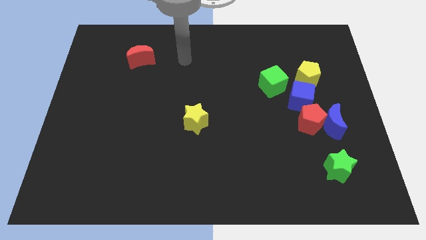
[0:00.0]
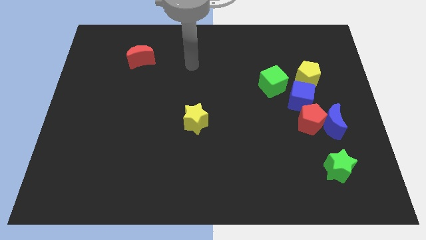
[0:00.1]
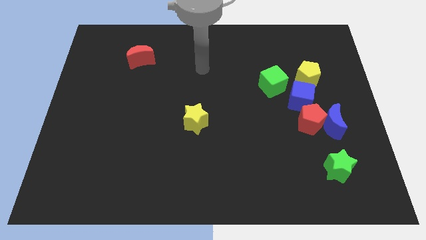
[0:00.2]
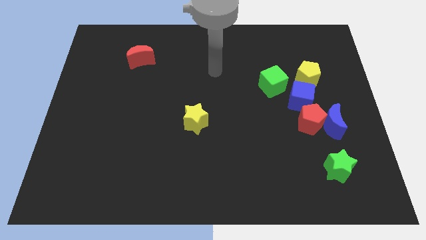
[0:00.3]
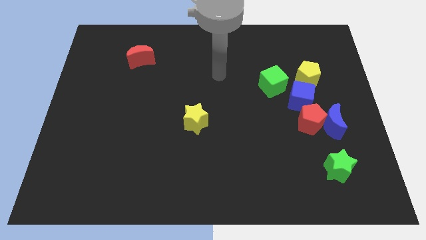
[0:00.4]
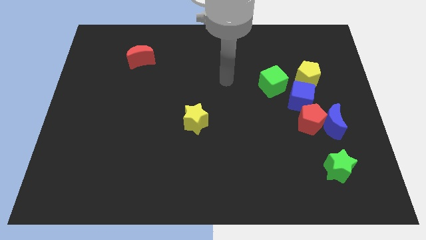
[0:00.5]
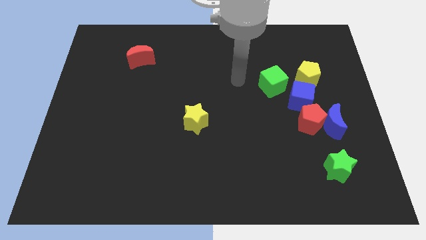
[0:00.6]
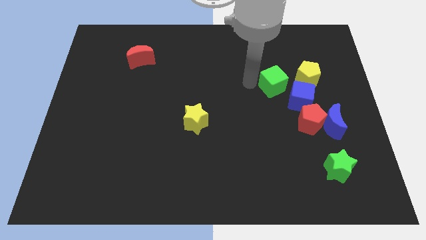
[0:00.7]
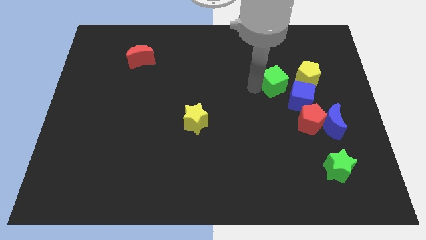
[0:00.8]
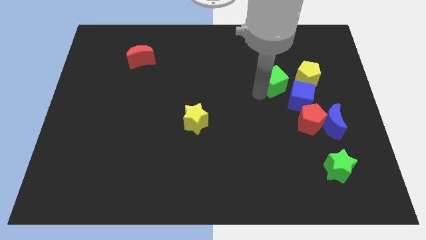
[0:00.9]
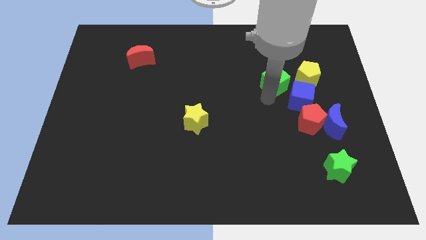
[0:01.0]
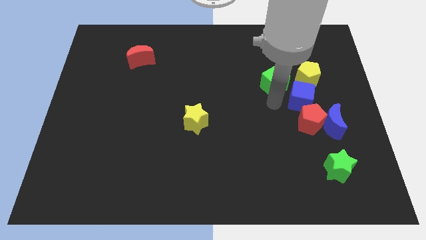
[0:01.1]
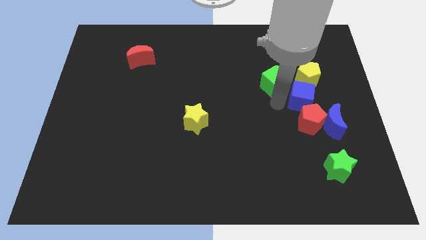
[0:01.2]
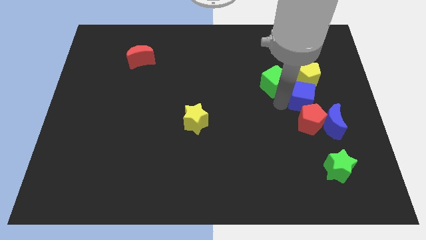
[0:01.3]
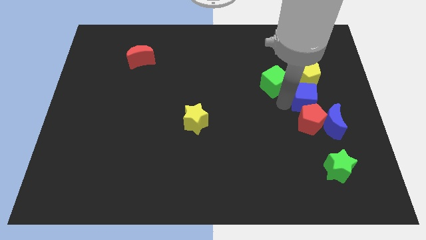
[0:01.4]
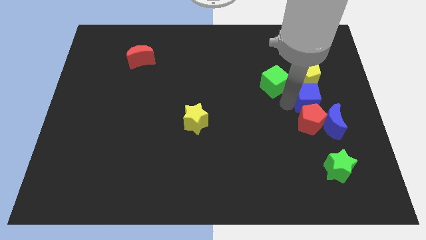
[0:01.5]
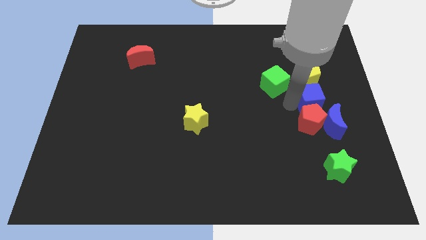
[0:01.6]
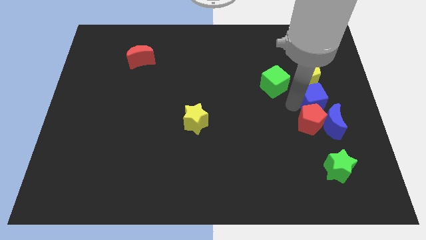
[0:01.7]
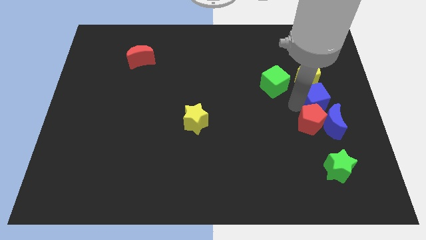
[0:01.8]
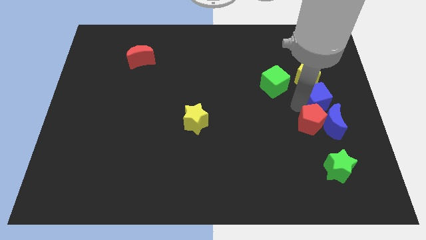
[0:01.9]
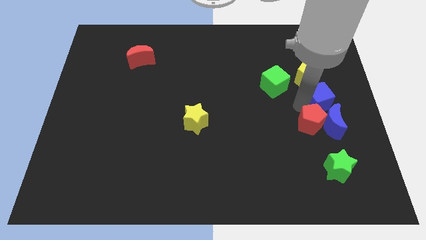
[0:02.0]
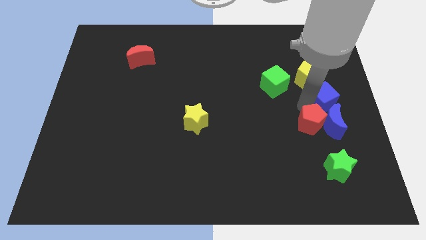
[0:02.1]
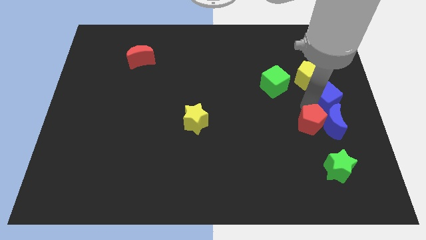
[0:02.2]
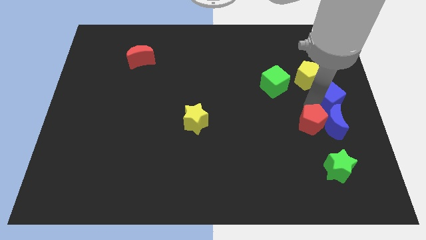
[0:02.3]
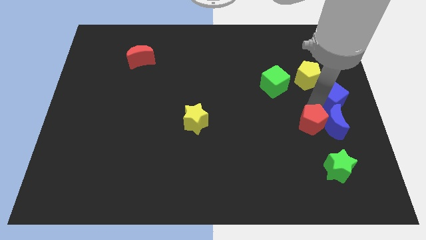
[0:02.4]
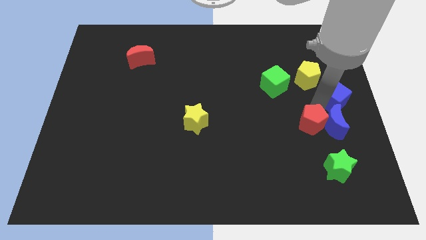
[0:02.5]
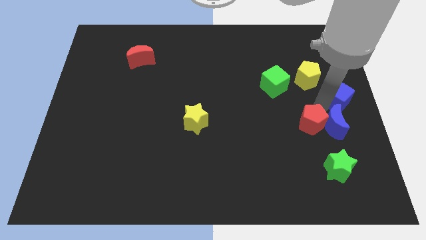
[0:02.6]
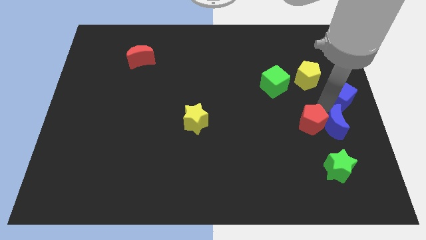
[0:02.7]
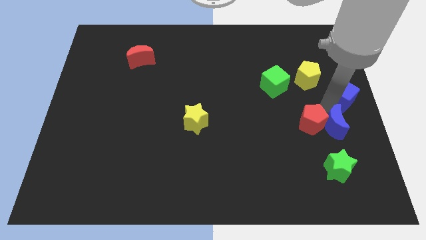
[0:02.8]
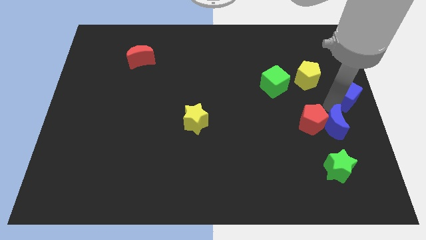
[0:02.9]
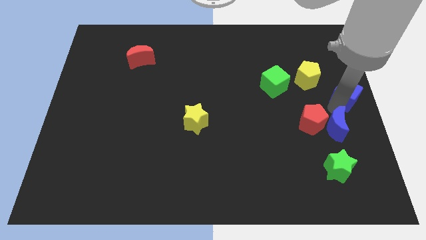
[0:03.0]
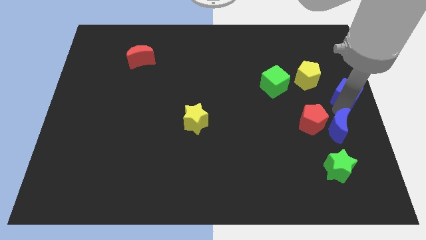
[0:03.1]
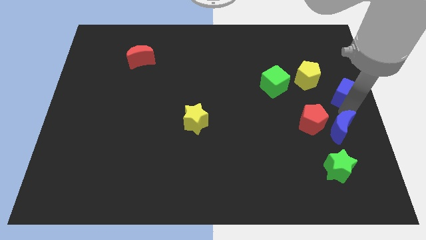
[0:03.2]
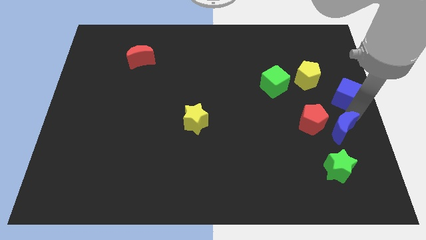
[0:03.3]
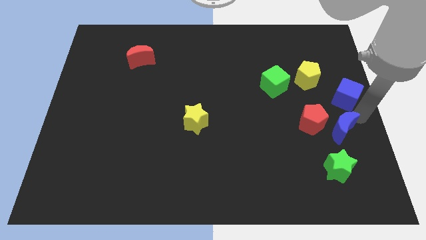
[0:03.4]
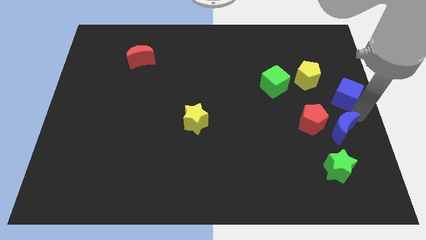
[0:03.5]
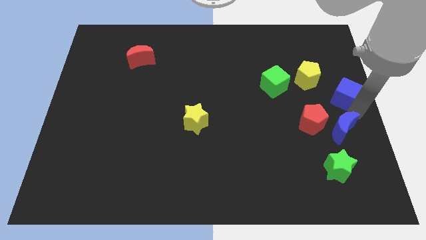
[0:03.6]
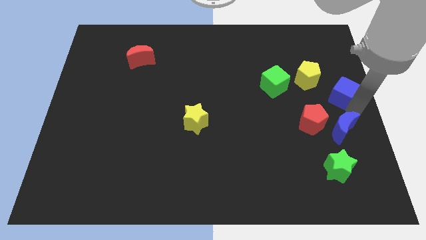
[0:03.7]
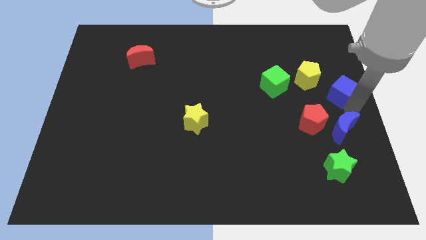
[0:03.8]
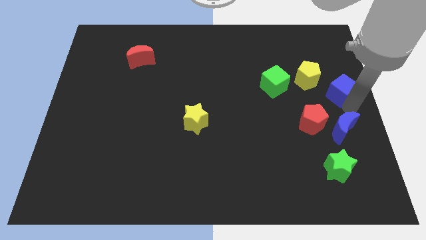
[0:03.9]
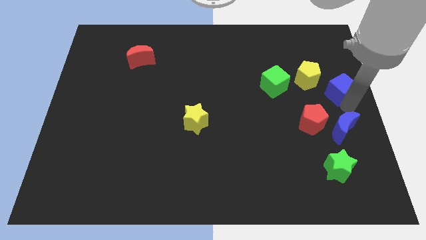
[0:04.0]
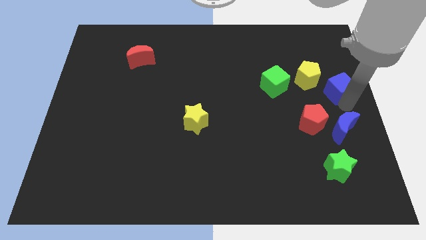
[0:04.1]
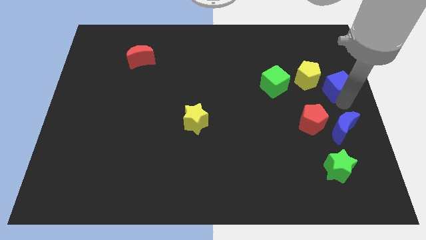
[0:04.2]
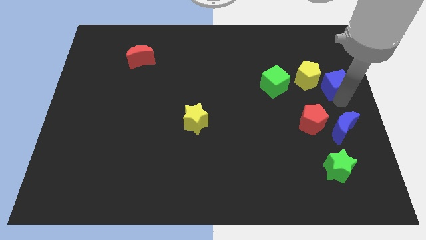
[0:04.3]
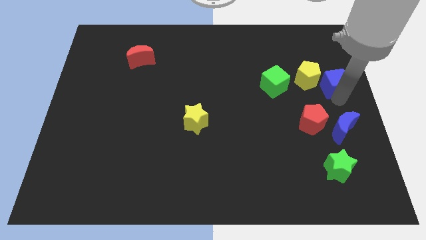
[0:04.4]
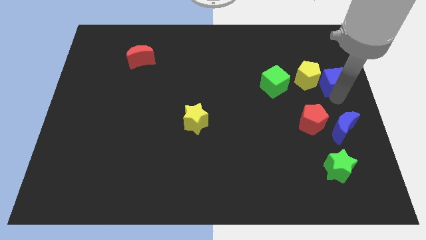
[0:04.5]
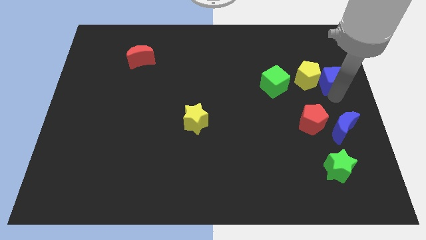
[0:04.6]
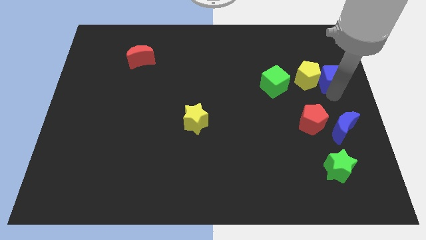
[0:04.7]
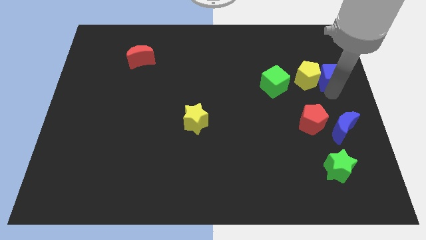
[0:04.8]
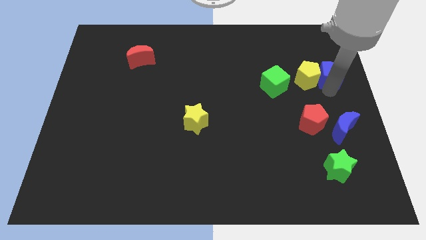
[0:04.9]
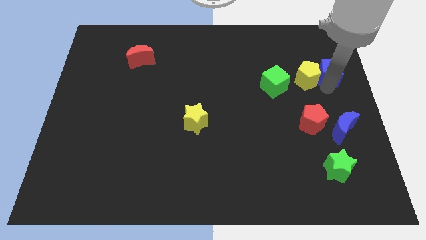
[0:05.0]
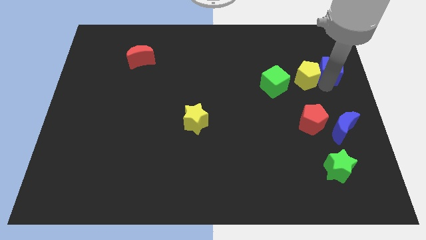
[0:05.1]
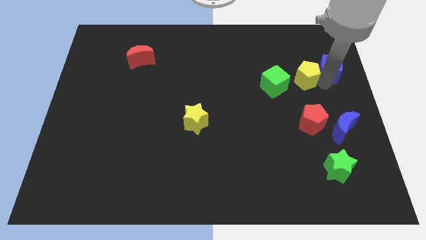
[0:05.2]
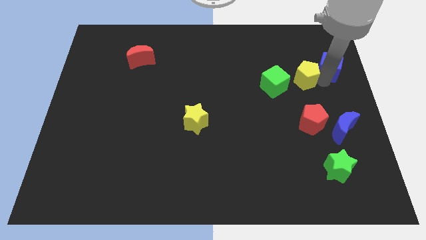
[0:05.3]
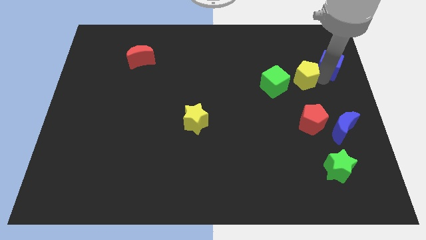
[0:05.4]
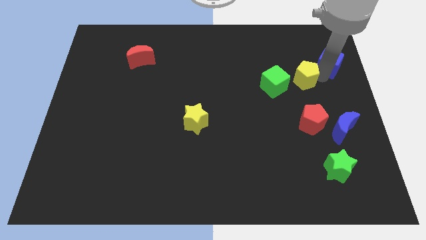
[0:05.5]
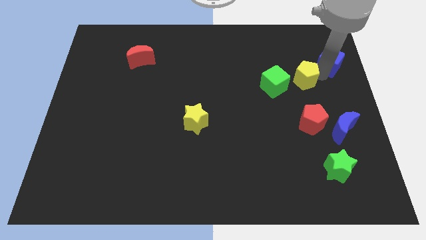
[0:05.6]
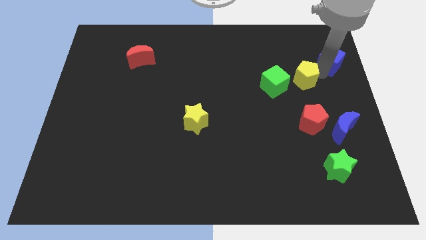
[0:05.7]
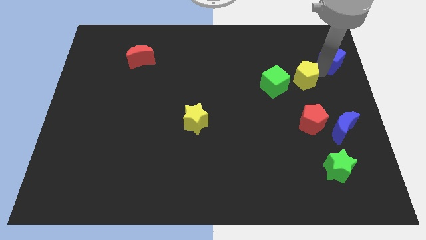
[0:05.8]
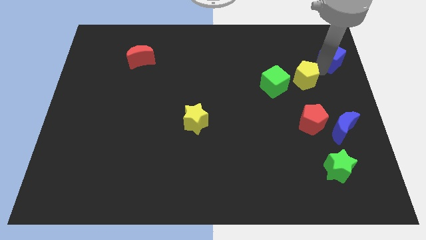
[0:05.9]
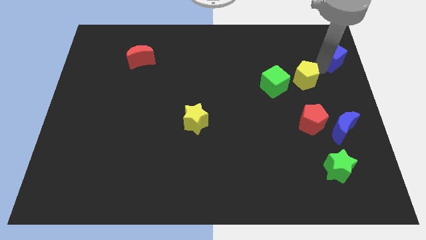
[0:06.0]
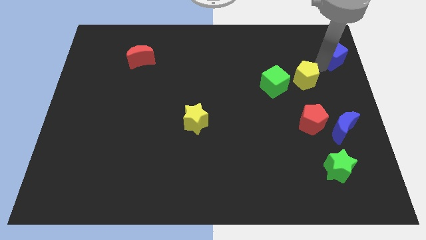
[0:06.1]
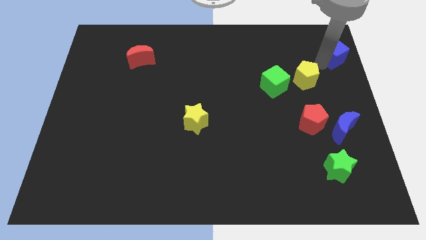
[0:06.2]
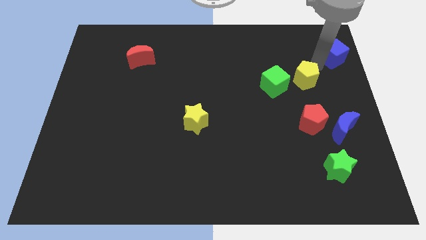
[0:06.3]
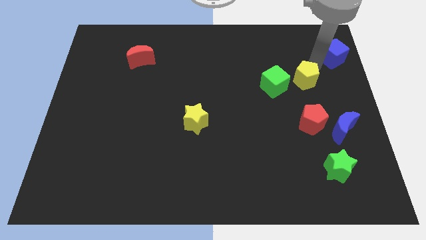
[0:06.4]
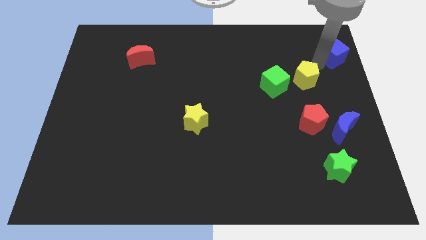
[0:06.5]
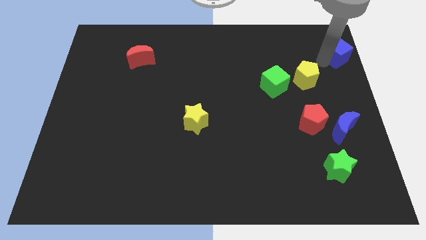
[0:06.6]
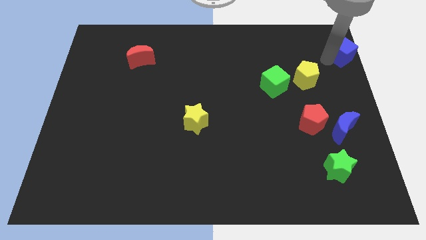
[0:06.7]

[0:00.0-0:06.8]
put the blue cube to the top right corner
